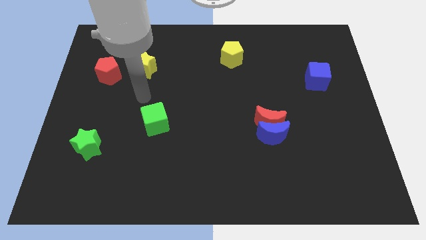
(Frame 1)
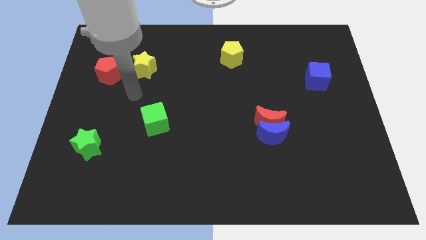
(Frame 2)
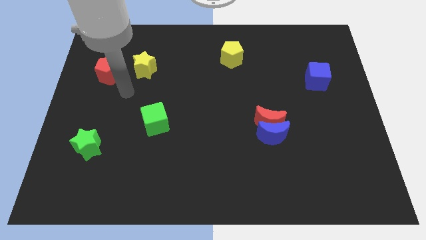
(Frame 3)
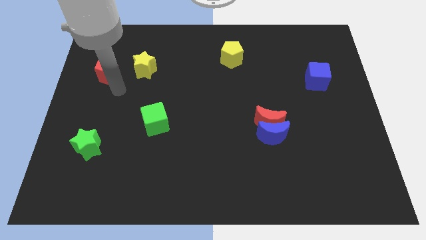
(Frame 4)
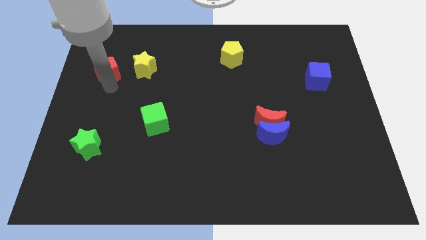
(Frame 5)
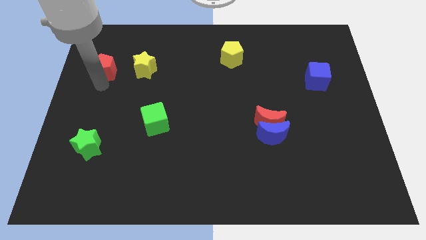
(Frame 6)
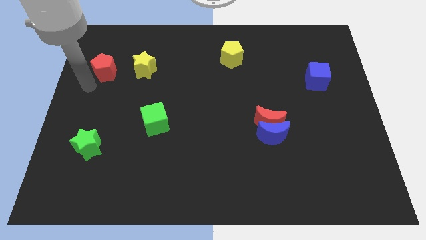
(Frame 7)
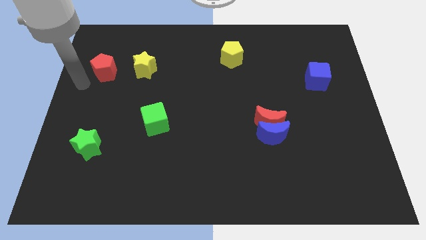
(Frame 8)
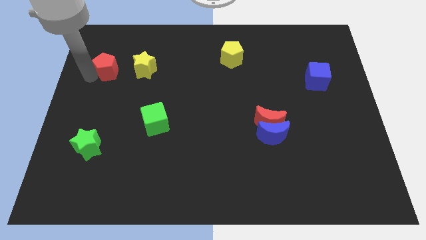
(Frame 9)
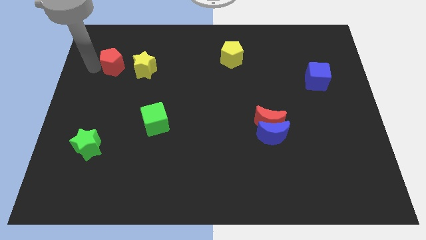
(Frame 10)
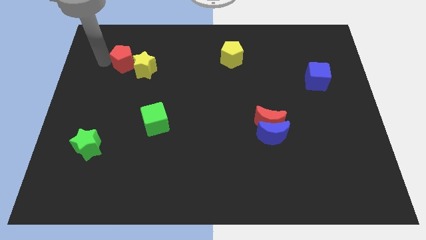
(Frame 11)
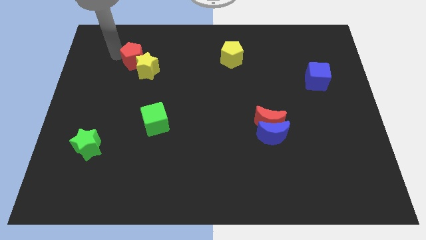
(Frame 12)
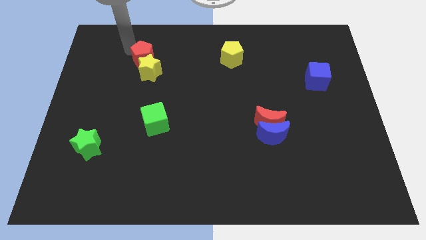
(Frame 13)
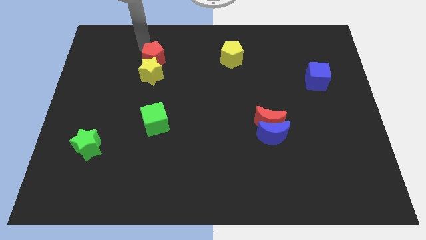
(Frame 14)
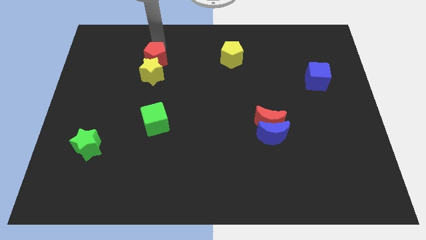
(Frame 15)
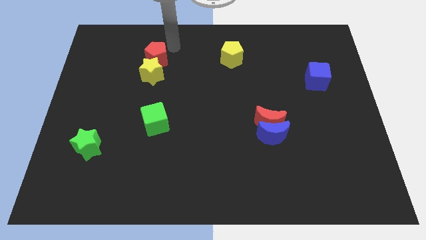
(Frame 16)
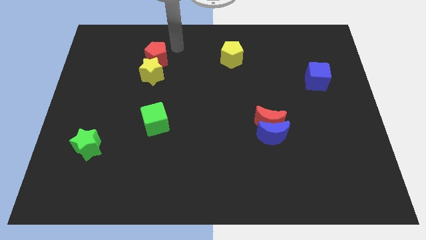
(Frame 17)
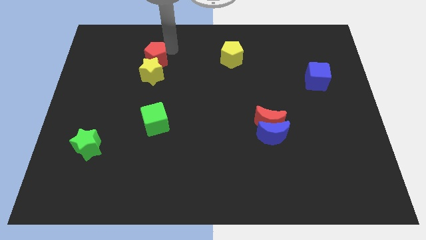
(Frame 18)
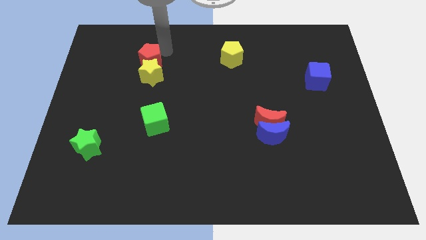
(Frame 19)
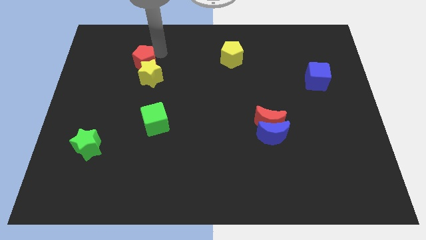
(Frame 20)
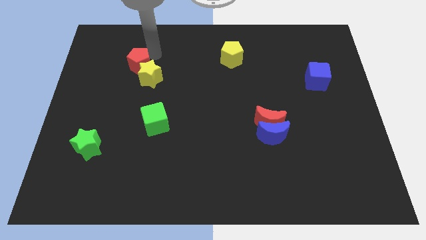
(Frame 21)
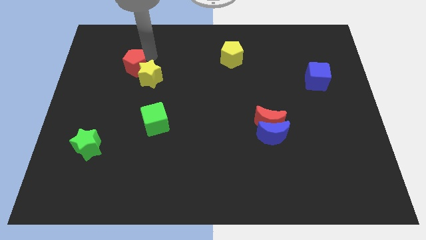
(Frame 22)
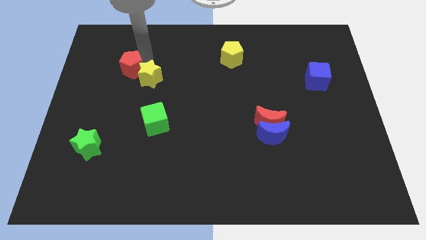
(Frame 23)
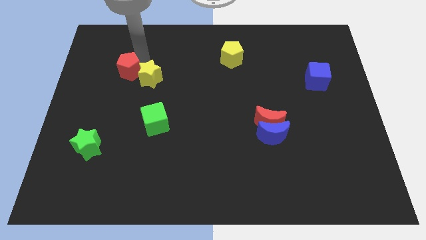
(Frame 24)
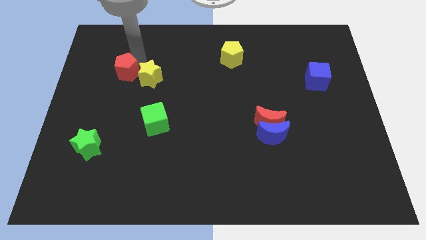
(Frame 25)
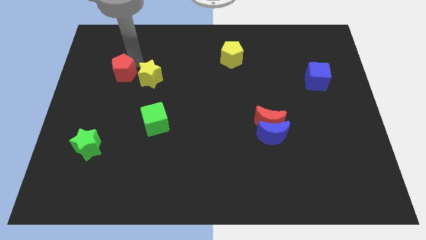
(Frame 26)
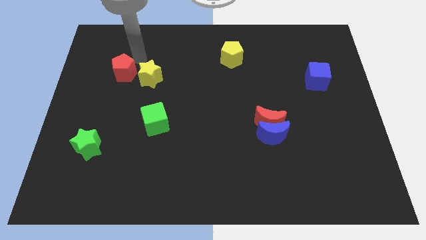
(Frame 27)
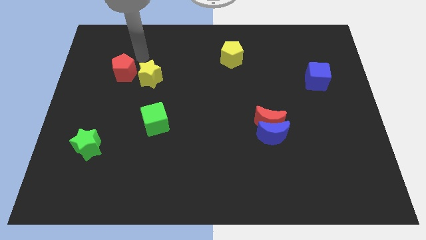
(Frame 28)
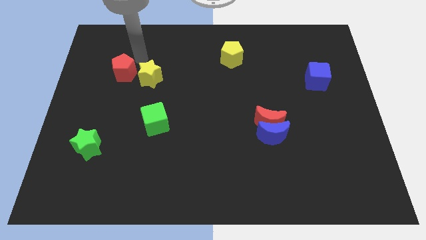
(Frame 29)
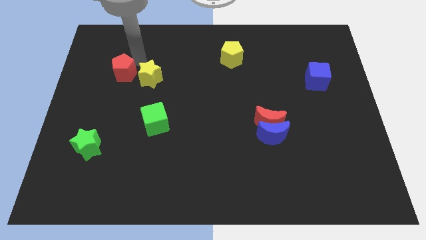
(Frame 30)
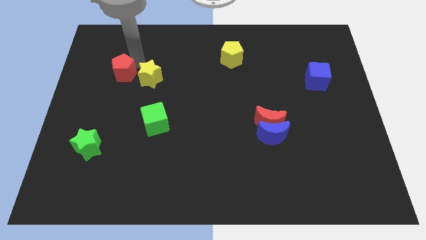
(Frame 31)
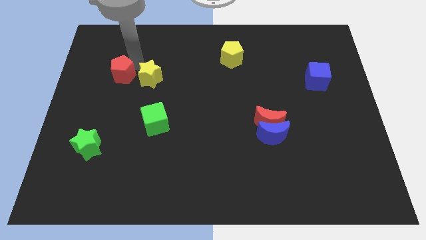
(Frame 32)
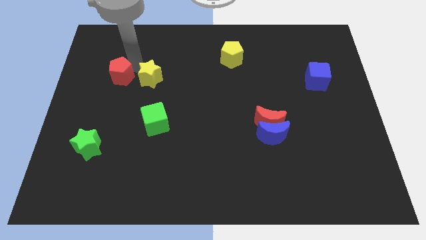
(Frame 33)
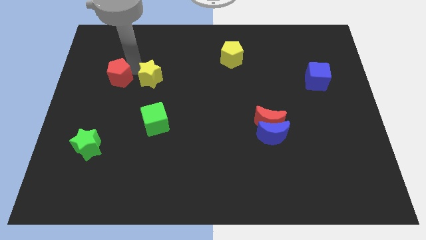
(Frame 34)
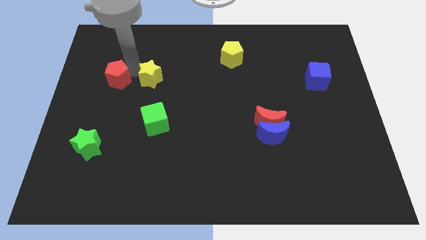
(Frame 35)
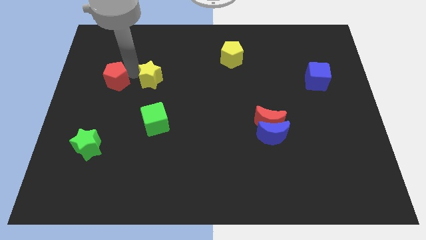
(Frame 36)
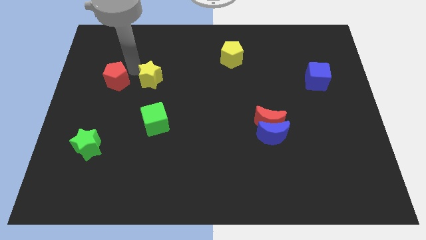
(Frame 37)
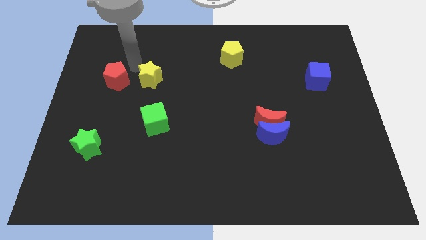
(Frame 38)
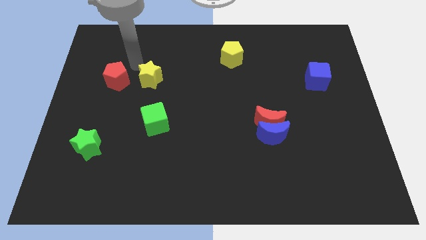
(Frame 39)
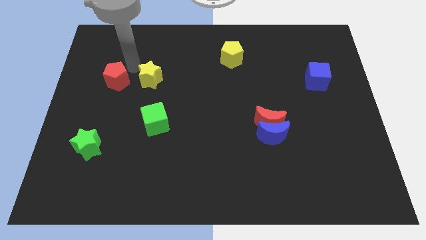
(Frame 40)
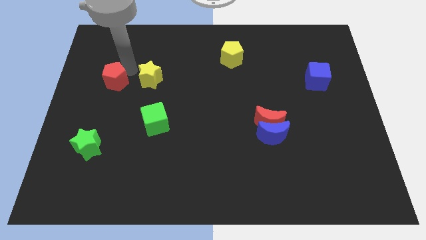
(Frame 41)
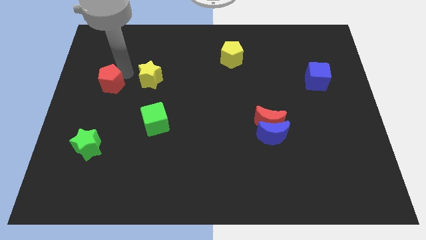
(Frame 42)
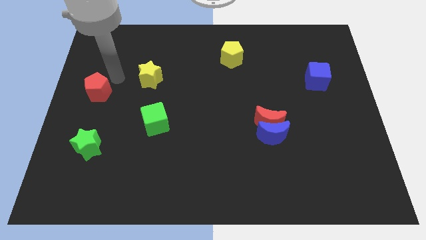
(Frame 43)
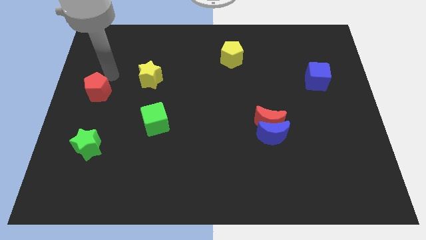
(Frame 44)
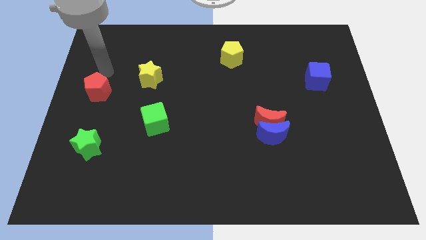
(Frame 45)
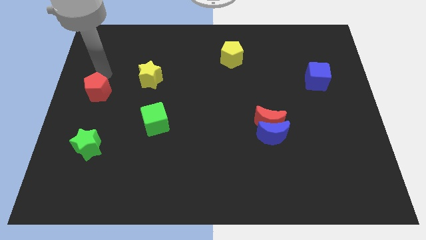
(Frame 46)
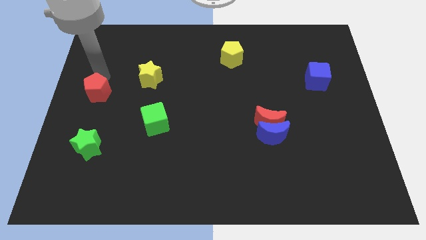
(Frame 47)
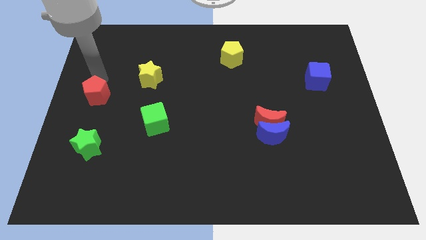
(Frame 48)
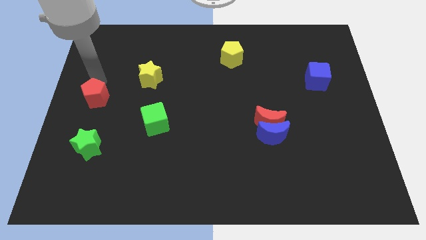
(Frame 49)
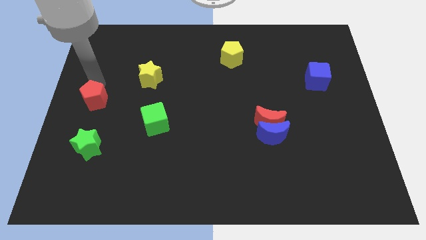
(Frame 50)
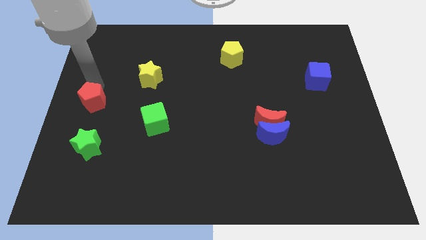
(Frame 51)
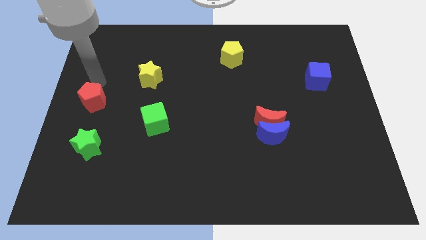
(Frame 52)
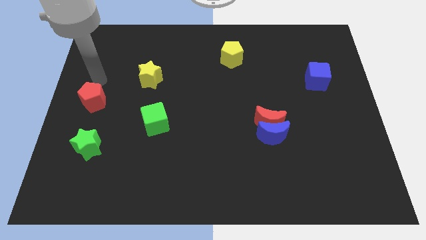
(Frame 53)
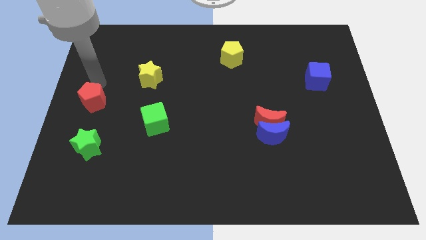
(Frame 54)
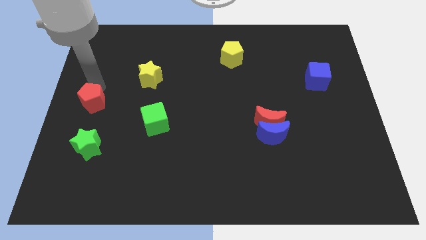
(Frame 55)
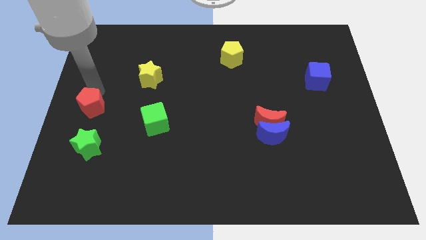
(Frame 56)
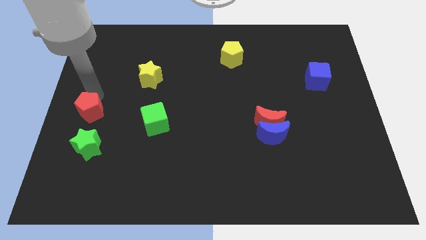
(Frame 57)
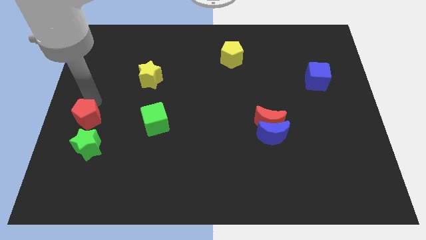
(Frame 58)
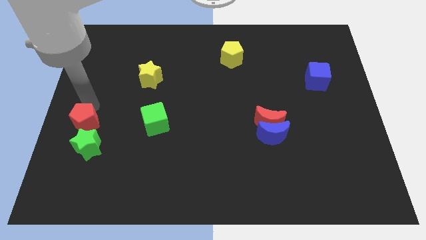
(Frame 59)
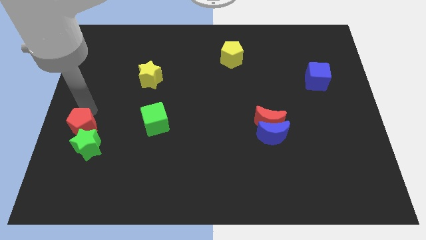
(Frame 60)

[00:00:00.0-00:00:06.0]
put the red pentagon next to the green star
